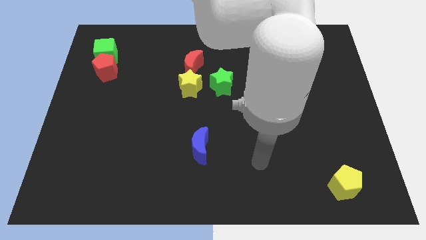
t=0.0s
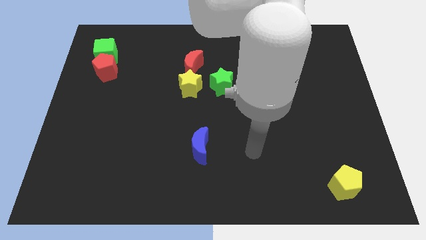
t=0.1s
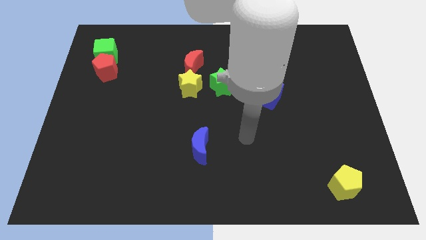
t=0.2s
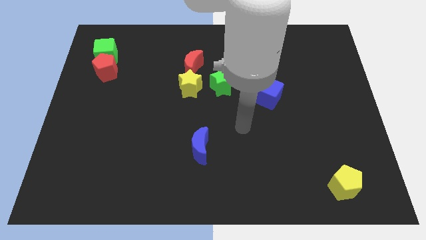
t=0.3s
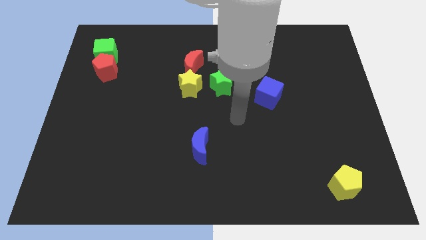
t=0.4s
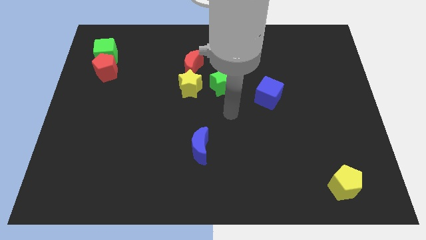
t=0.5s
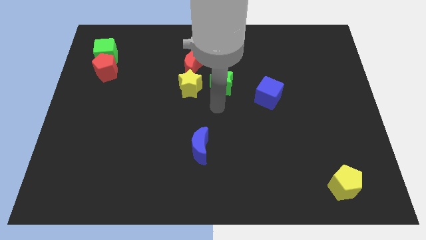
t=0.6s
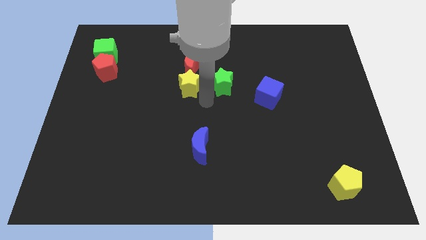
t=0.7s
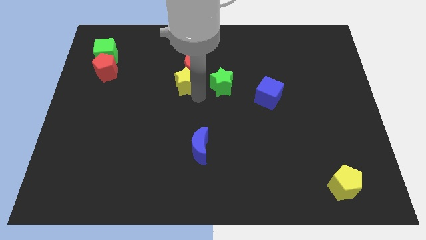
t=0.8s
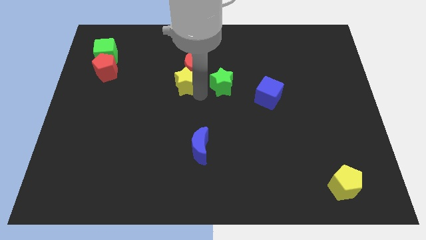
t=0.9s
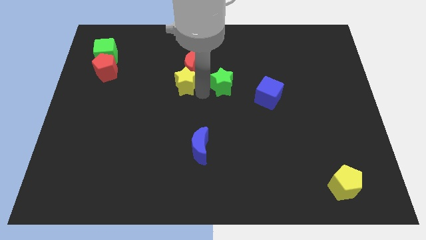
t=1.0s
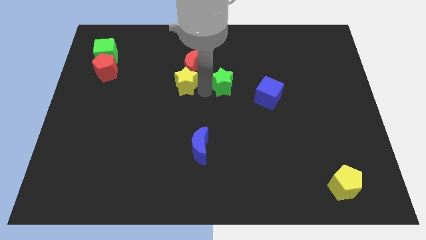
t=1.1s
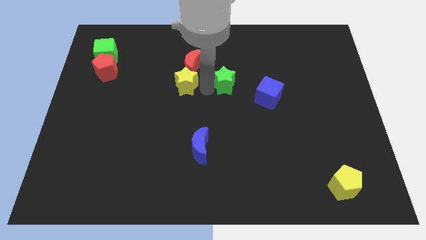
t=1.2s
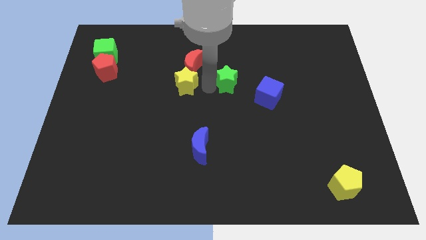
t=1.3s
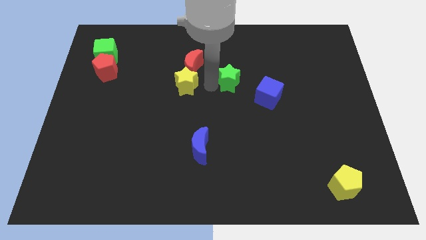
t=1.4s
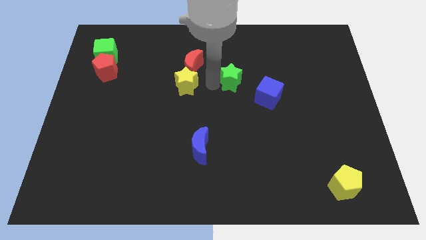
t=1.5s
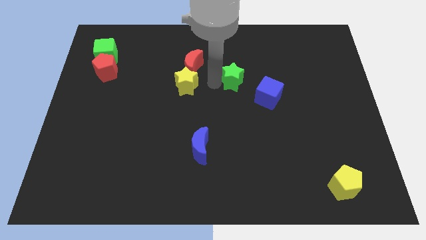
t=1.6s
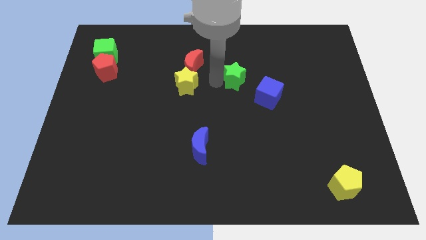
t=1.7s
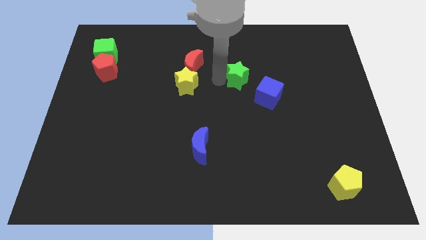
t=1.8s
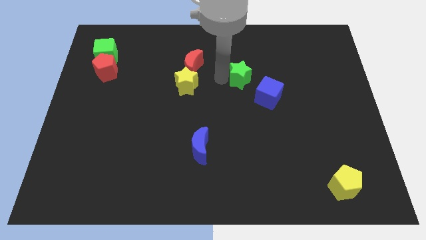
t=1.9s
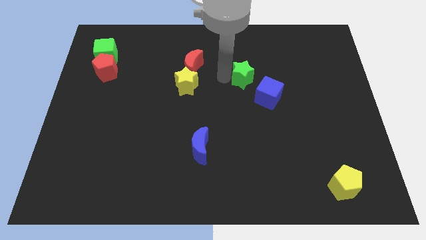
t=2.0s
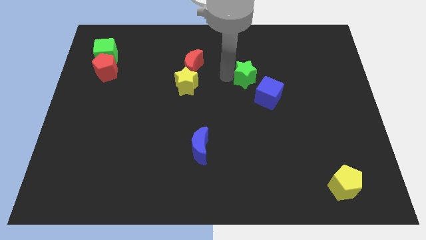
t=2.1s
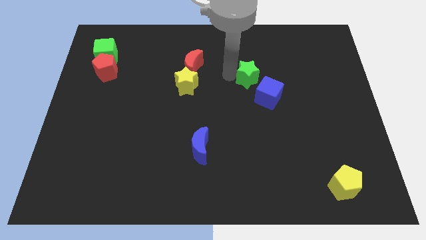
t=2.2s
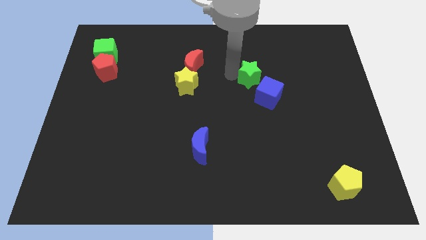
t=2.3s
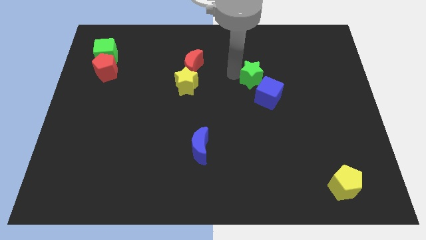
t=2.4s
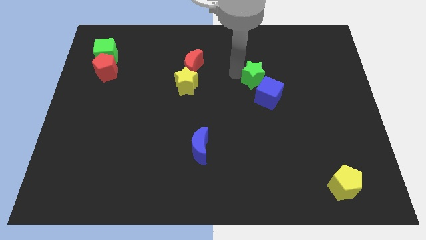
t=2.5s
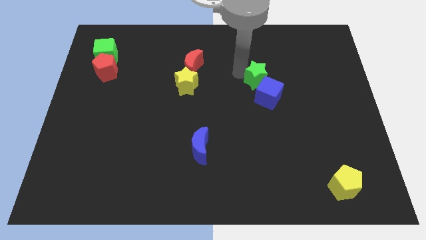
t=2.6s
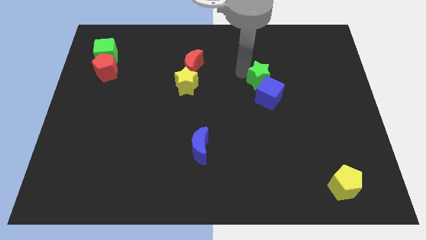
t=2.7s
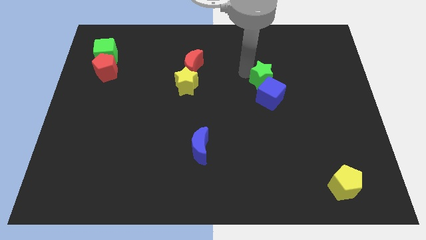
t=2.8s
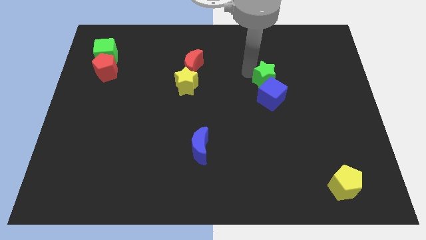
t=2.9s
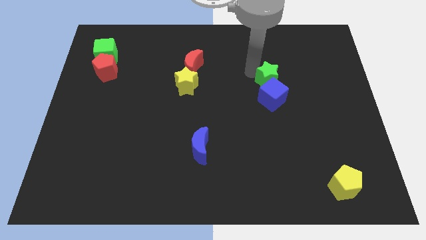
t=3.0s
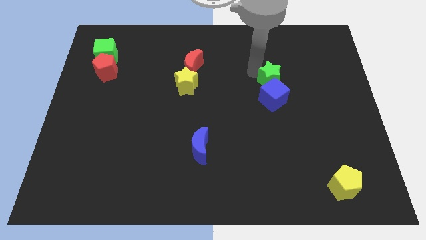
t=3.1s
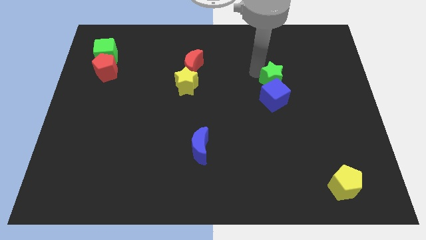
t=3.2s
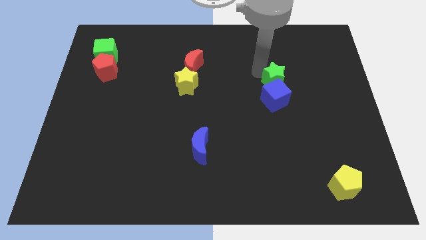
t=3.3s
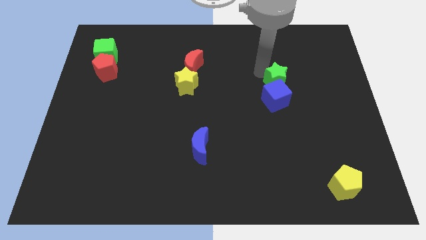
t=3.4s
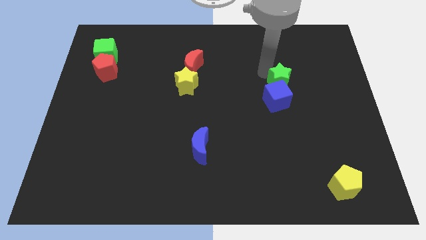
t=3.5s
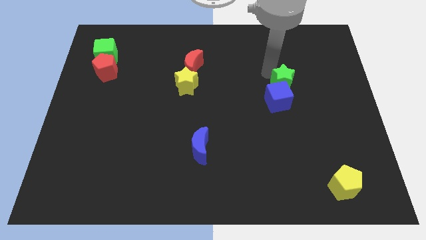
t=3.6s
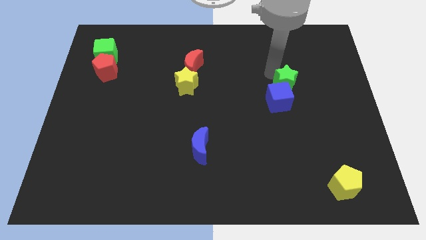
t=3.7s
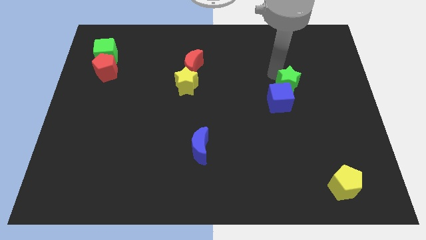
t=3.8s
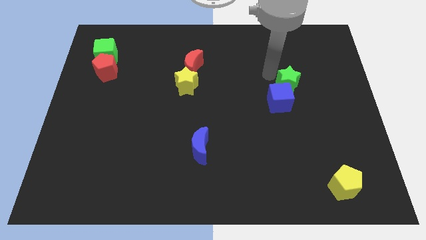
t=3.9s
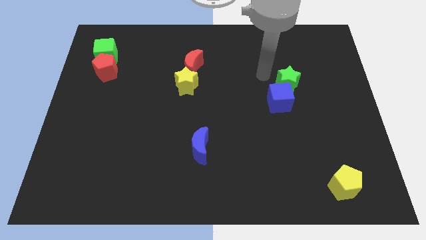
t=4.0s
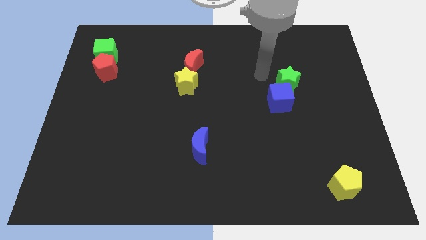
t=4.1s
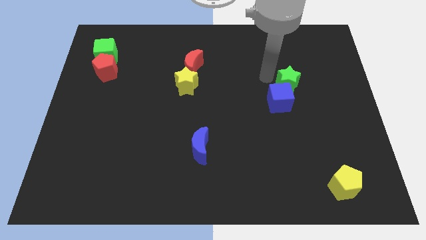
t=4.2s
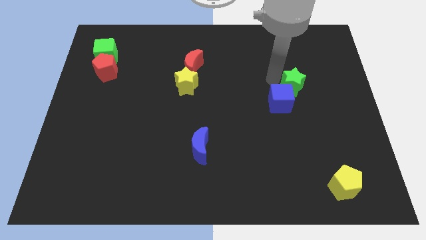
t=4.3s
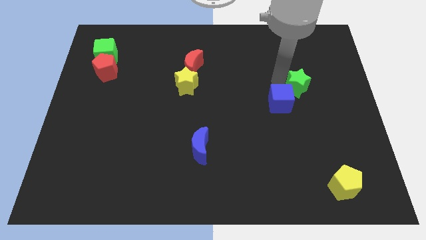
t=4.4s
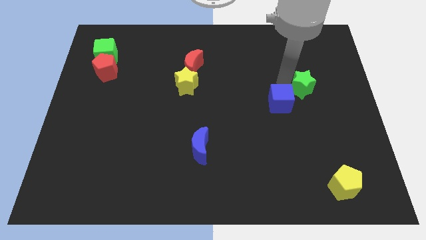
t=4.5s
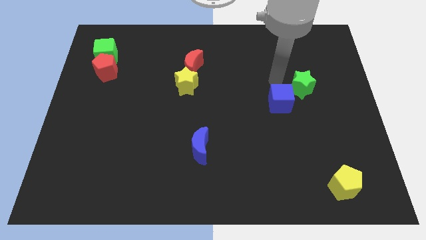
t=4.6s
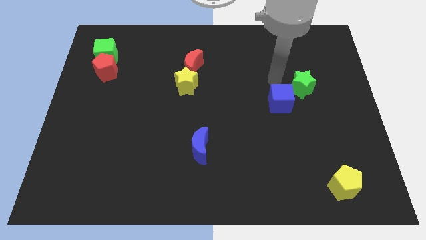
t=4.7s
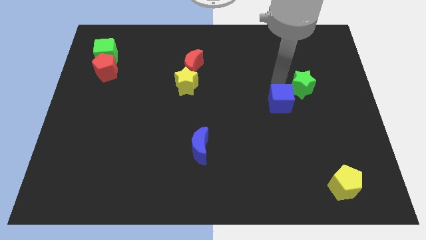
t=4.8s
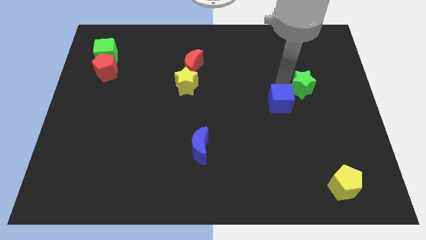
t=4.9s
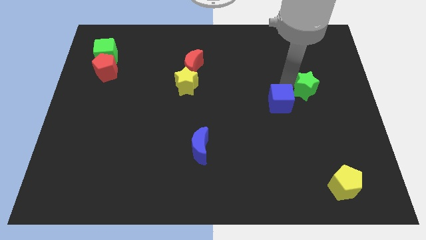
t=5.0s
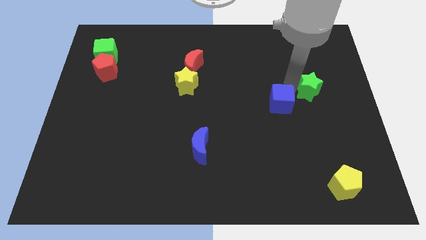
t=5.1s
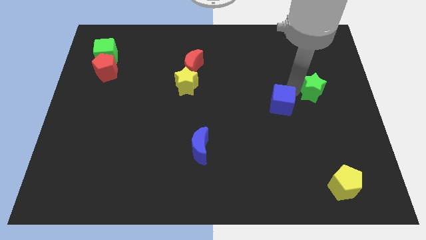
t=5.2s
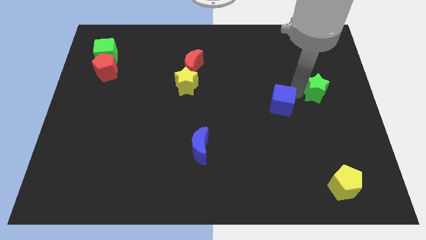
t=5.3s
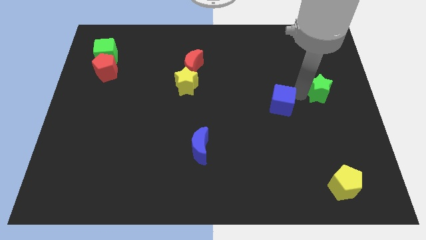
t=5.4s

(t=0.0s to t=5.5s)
put the green star to the center right

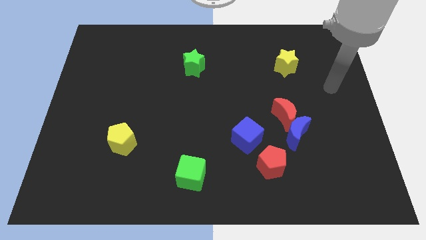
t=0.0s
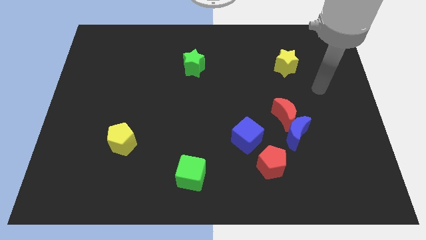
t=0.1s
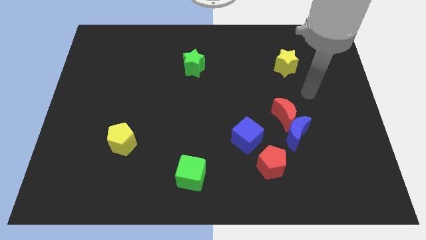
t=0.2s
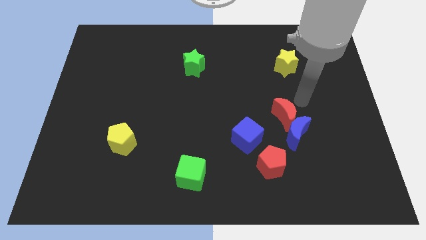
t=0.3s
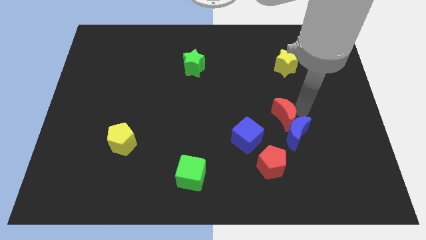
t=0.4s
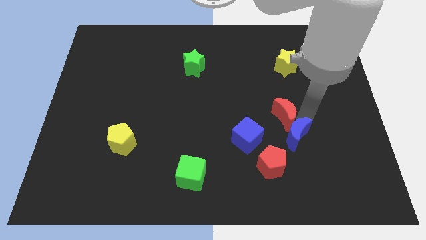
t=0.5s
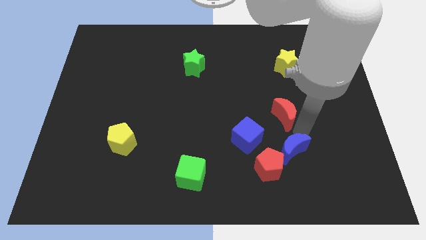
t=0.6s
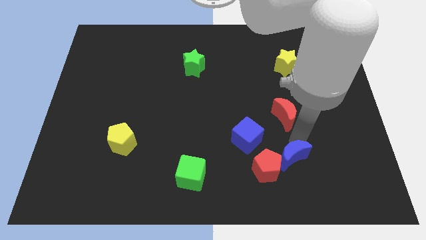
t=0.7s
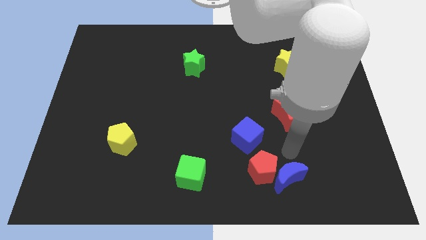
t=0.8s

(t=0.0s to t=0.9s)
slide the red pentagon to the bottom
